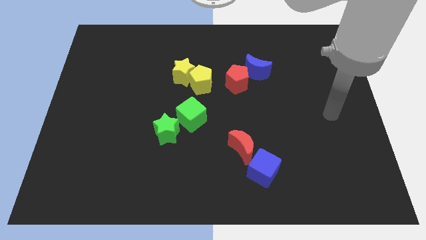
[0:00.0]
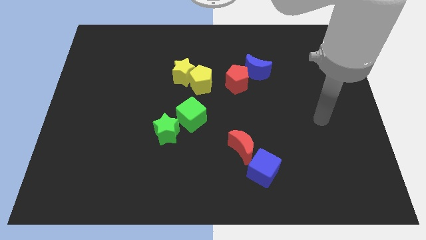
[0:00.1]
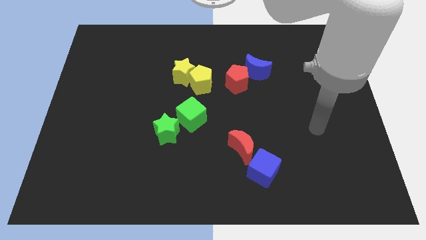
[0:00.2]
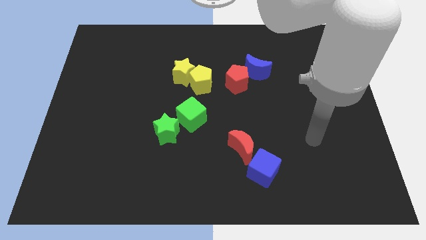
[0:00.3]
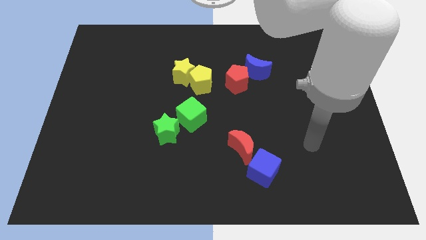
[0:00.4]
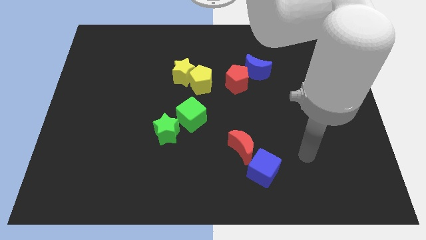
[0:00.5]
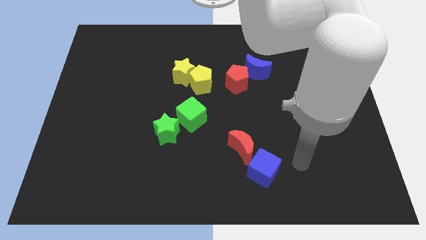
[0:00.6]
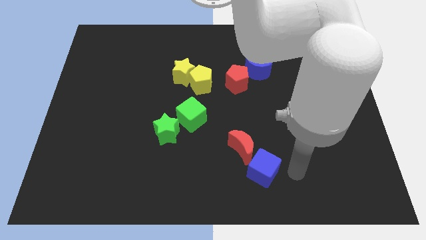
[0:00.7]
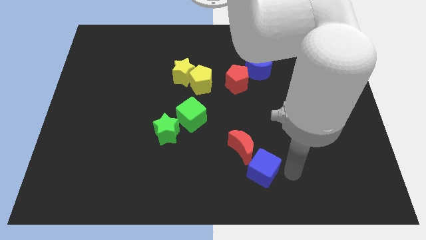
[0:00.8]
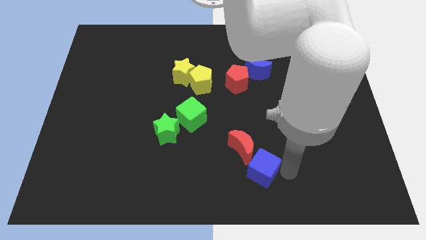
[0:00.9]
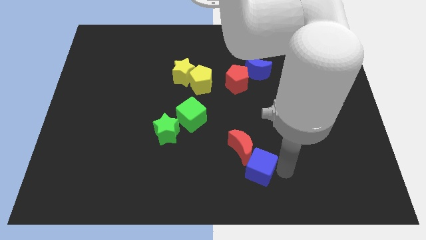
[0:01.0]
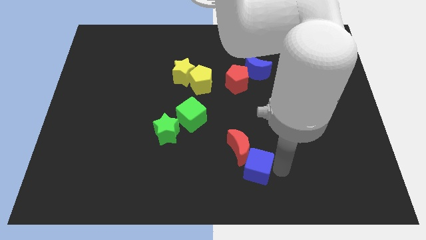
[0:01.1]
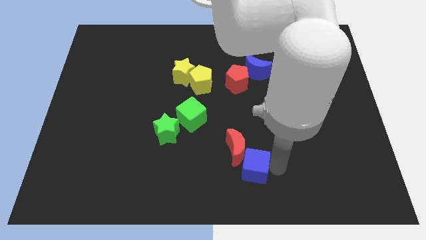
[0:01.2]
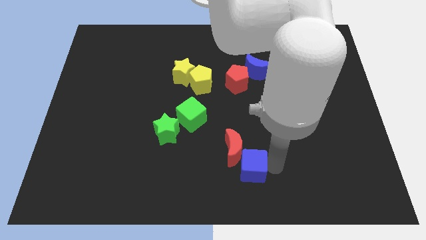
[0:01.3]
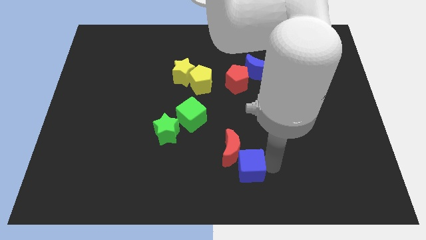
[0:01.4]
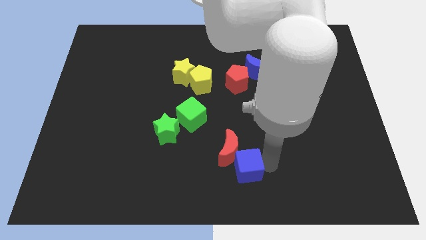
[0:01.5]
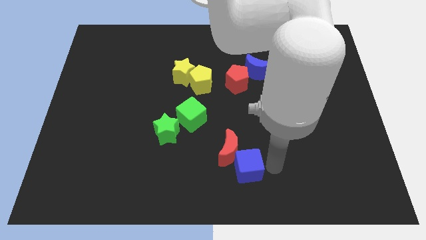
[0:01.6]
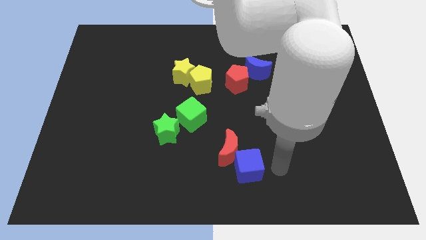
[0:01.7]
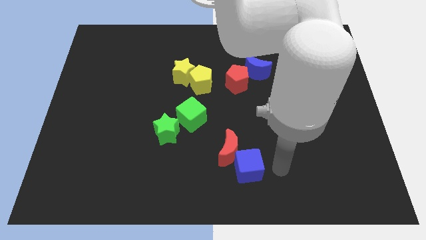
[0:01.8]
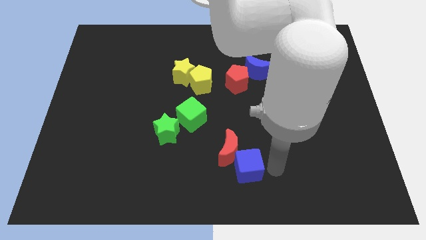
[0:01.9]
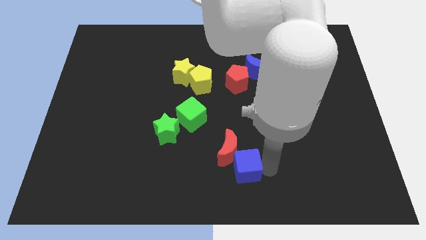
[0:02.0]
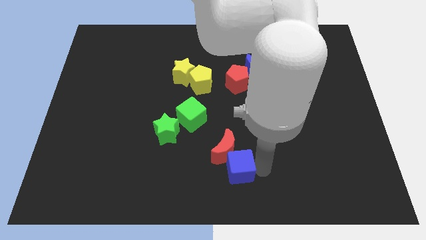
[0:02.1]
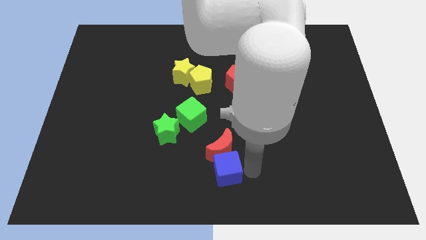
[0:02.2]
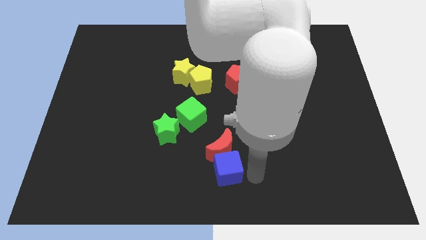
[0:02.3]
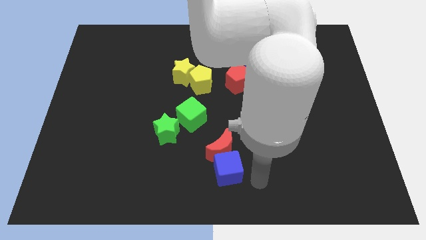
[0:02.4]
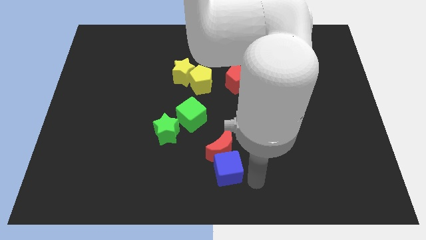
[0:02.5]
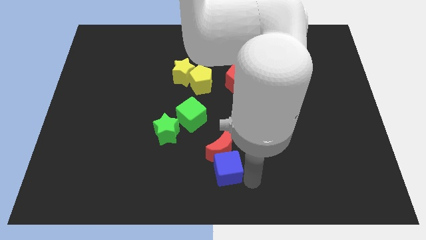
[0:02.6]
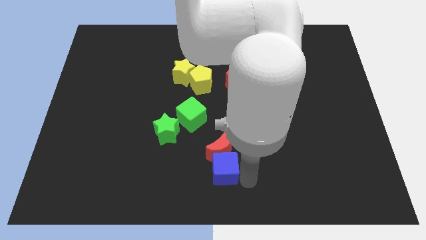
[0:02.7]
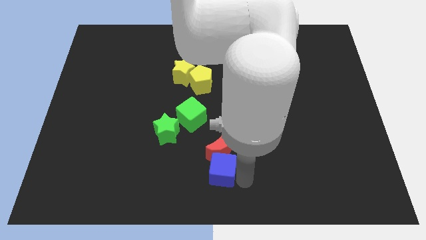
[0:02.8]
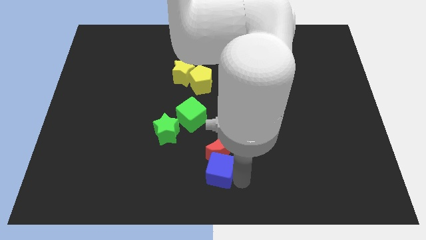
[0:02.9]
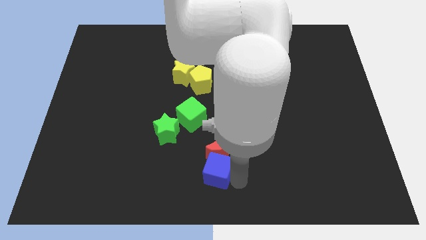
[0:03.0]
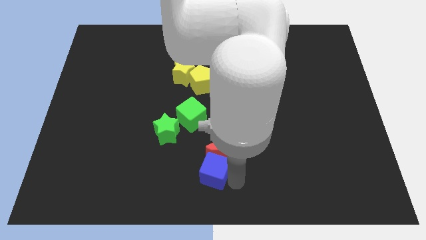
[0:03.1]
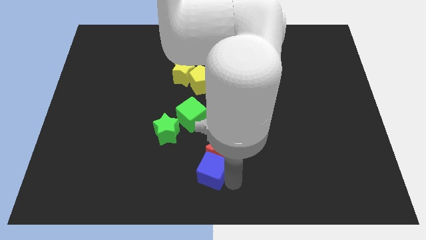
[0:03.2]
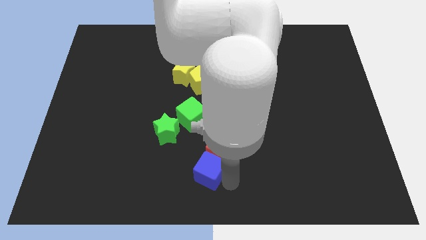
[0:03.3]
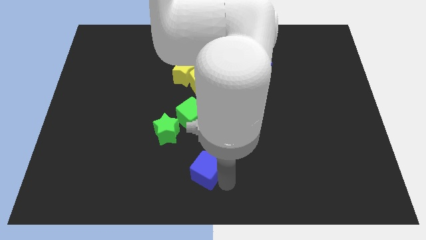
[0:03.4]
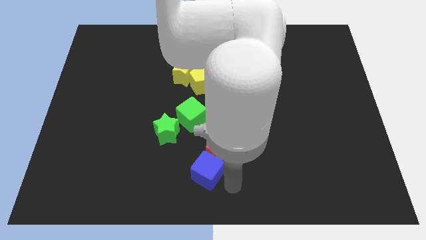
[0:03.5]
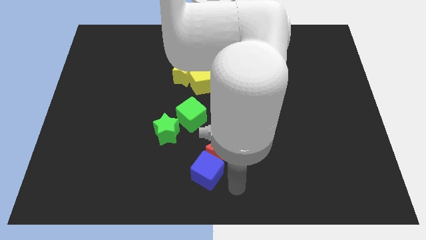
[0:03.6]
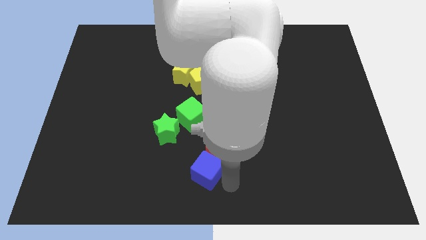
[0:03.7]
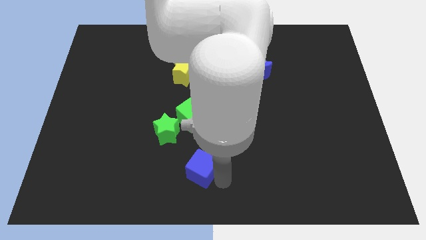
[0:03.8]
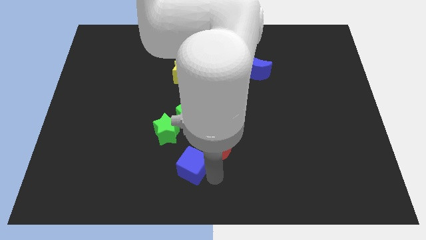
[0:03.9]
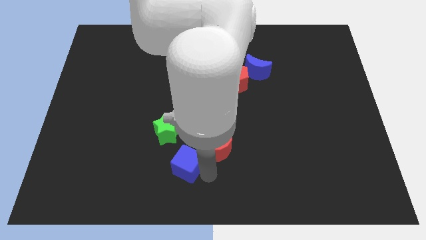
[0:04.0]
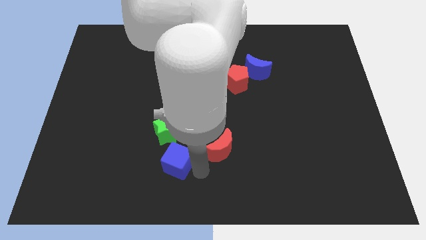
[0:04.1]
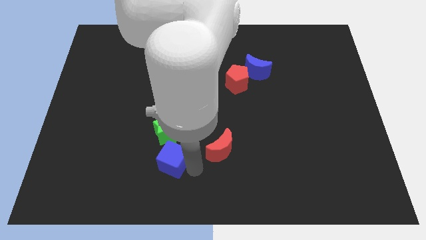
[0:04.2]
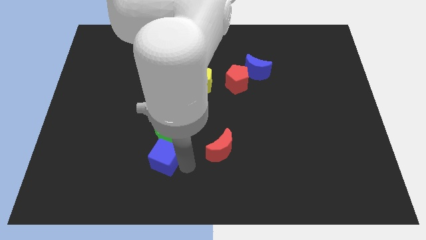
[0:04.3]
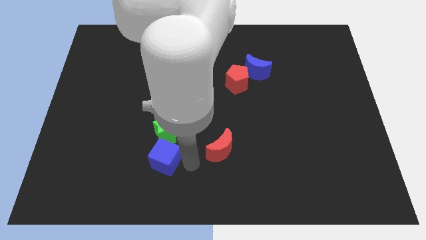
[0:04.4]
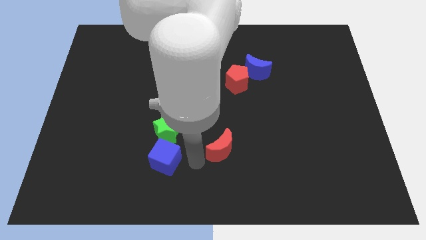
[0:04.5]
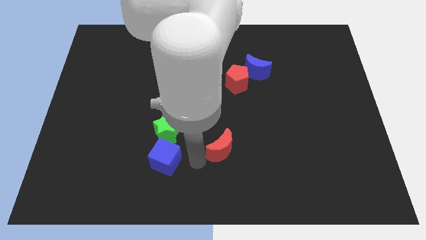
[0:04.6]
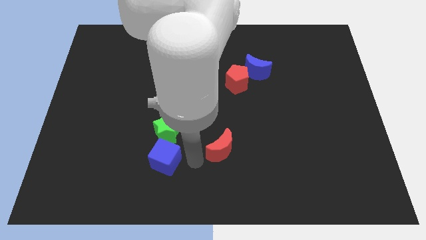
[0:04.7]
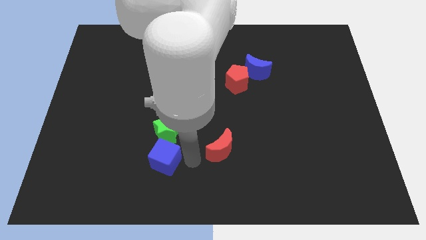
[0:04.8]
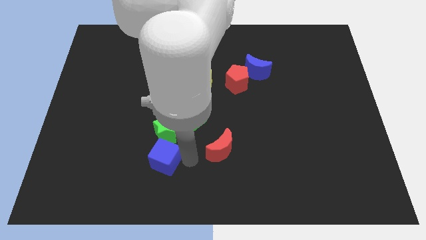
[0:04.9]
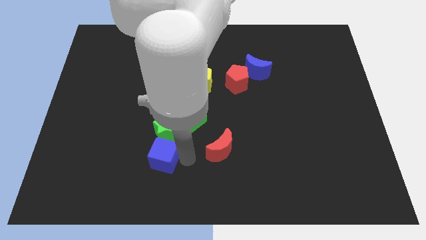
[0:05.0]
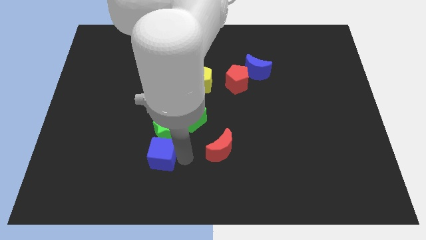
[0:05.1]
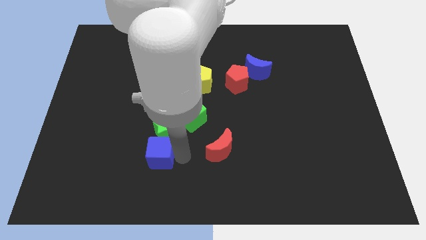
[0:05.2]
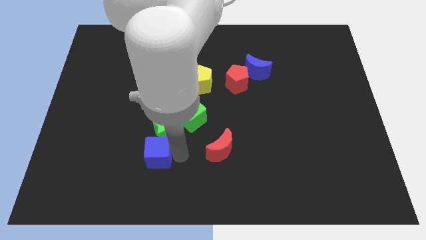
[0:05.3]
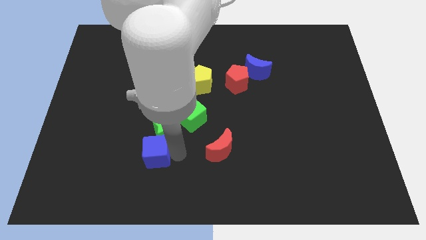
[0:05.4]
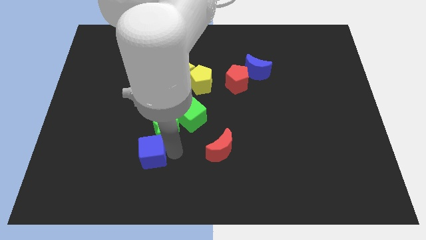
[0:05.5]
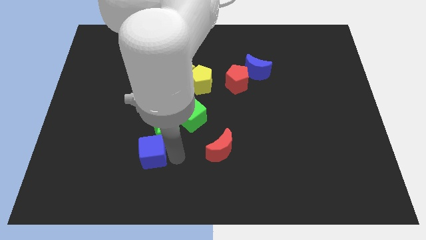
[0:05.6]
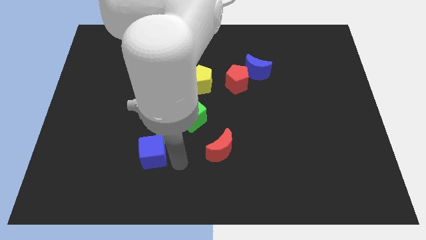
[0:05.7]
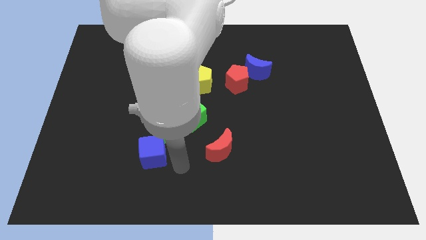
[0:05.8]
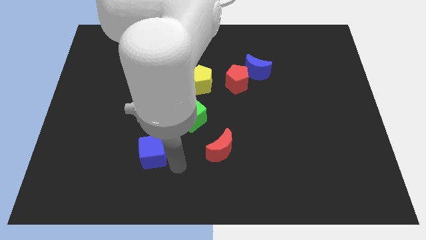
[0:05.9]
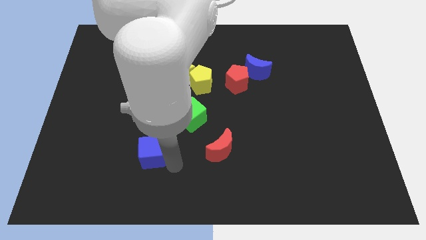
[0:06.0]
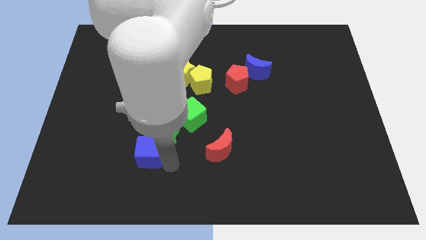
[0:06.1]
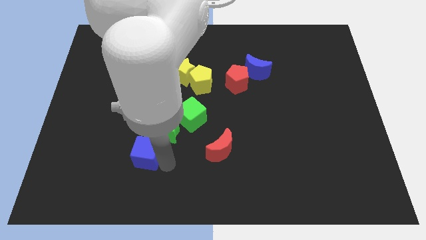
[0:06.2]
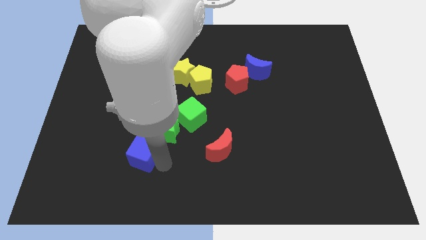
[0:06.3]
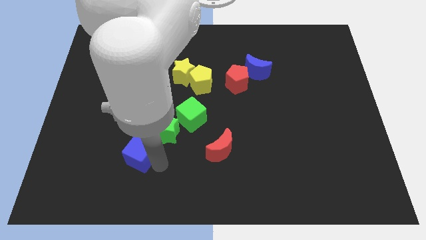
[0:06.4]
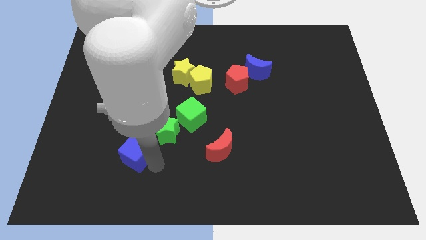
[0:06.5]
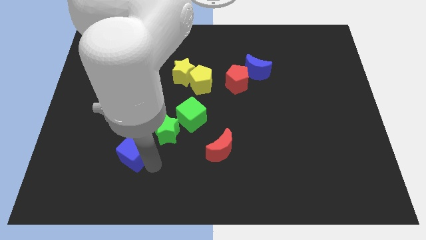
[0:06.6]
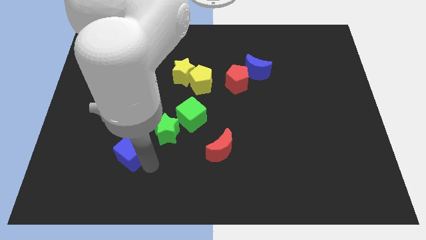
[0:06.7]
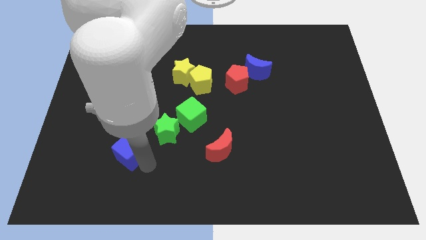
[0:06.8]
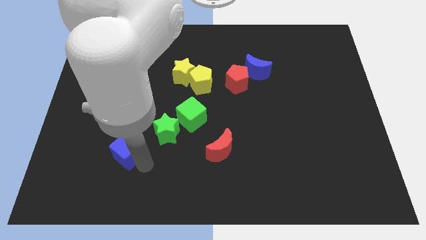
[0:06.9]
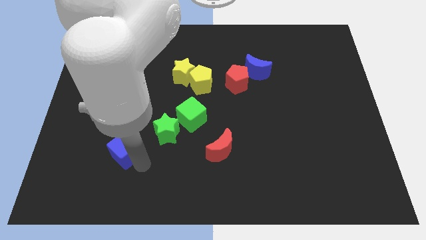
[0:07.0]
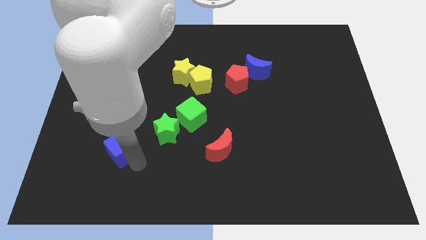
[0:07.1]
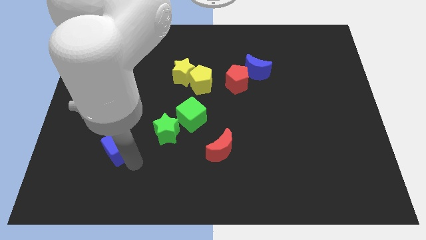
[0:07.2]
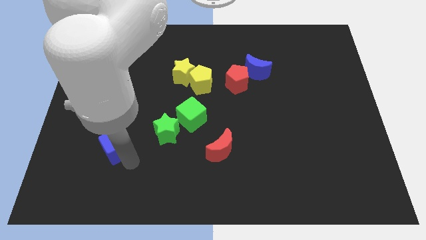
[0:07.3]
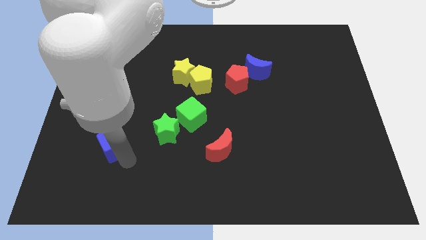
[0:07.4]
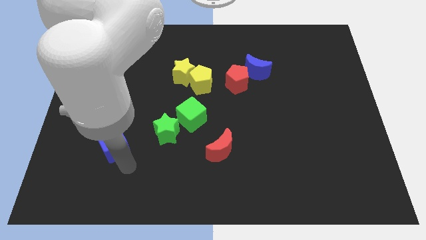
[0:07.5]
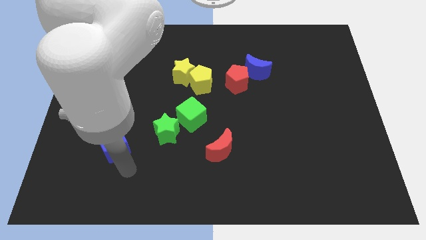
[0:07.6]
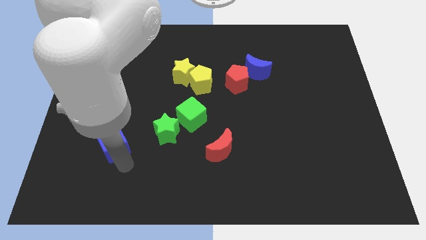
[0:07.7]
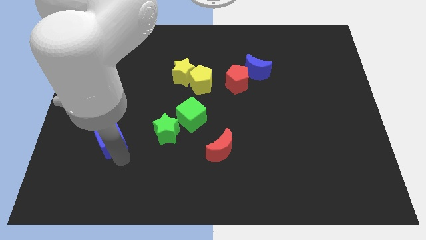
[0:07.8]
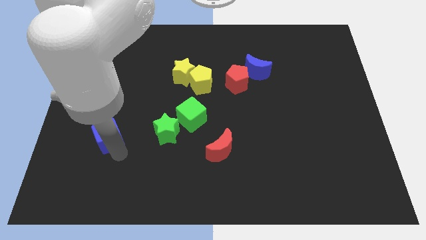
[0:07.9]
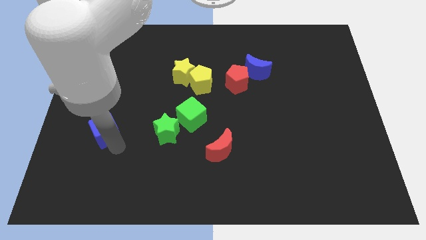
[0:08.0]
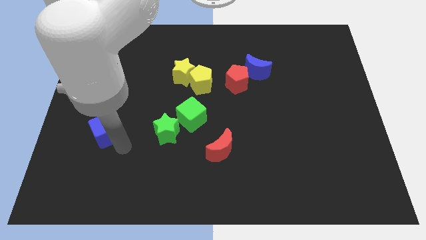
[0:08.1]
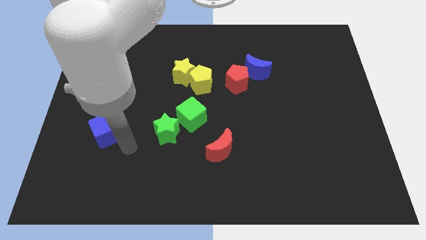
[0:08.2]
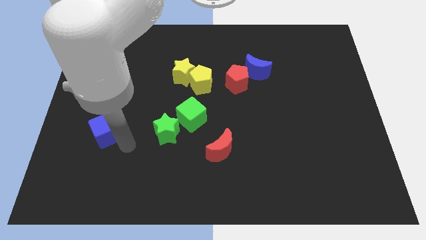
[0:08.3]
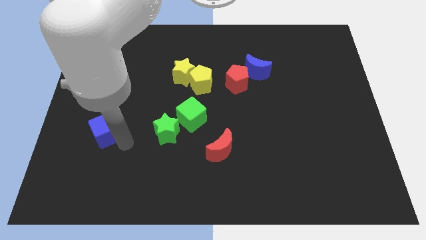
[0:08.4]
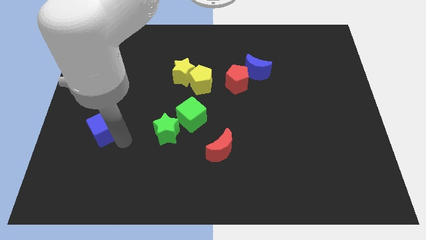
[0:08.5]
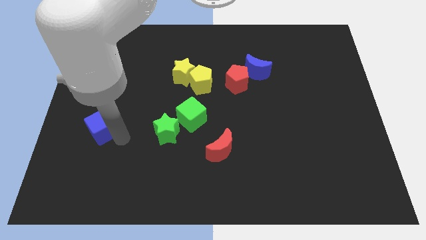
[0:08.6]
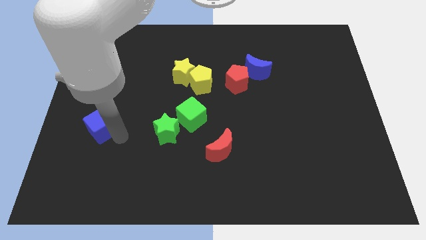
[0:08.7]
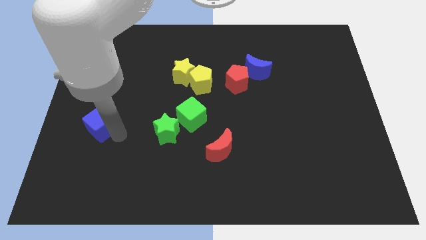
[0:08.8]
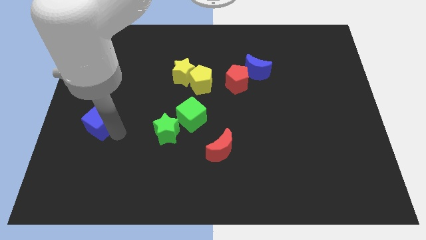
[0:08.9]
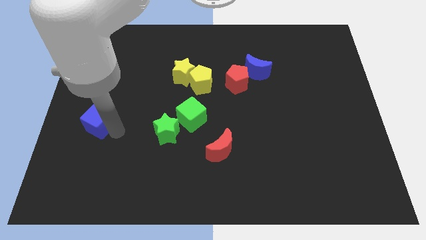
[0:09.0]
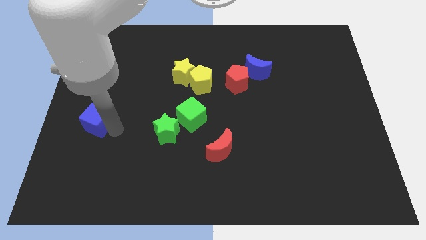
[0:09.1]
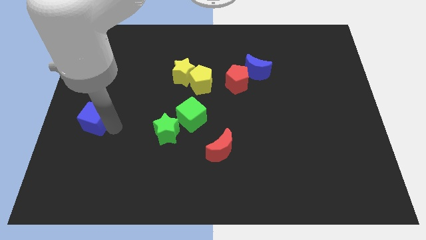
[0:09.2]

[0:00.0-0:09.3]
move the blue cube to the center left
